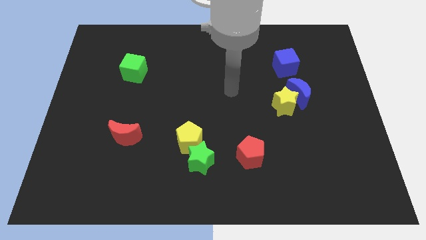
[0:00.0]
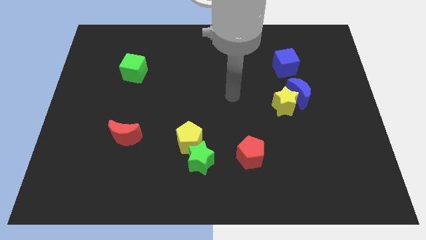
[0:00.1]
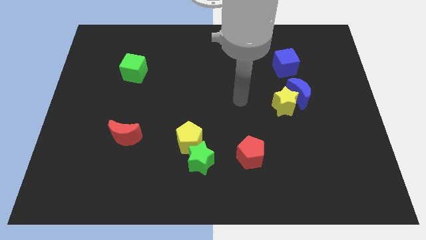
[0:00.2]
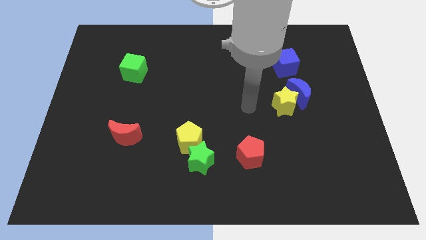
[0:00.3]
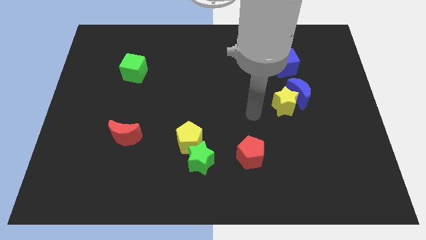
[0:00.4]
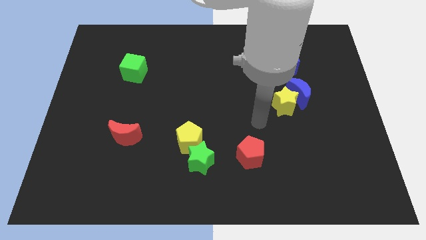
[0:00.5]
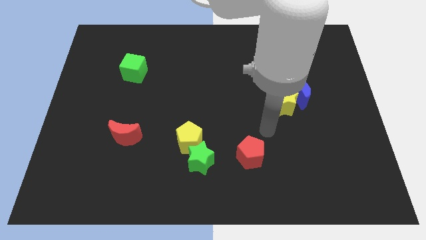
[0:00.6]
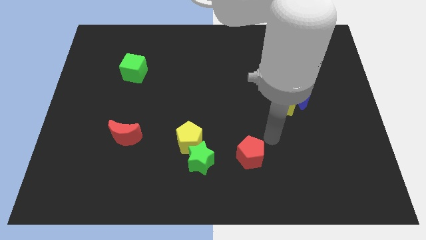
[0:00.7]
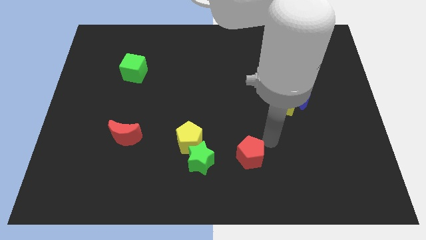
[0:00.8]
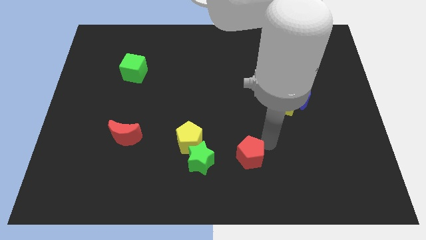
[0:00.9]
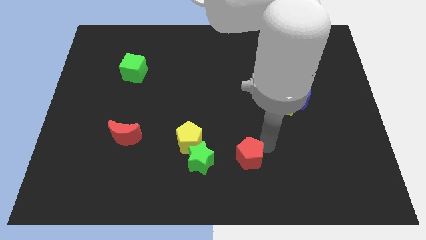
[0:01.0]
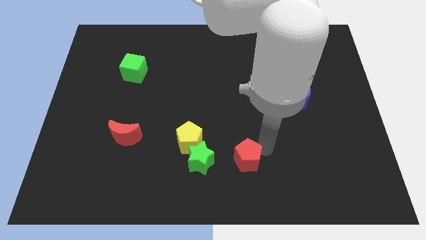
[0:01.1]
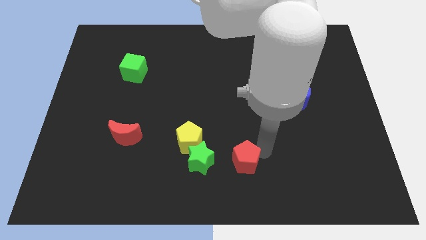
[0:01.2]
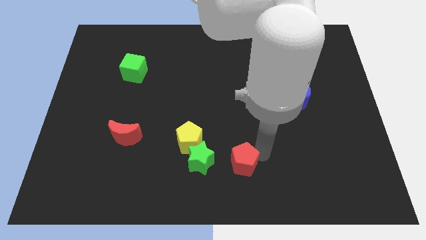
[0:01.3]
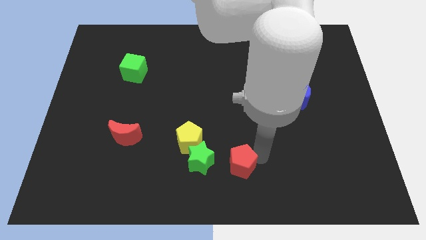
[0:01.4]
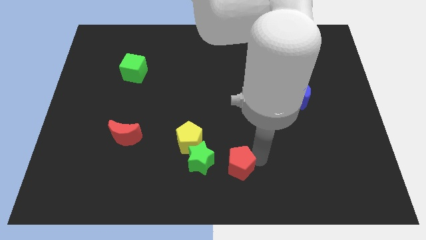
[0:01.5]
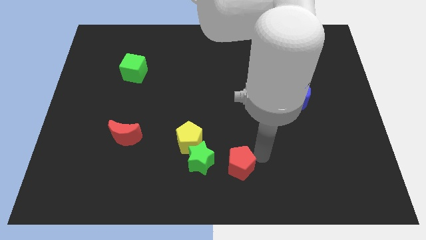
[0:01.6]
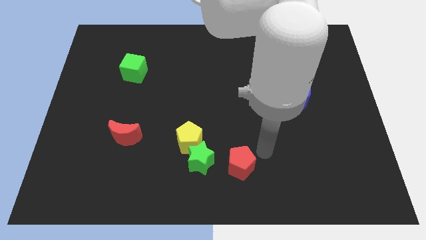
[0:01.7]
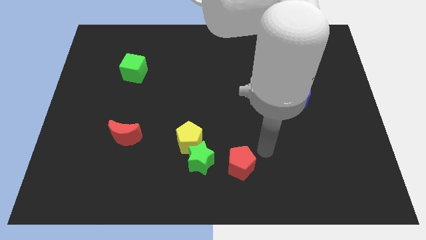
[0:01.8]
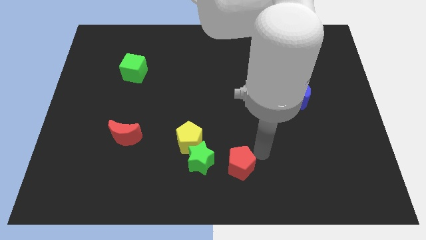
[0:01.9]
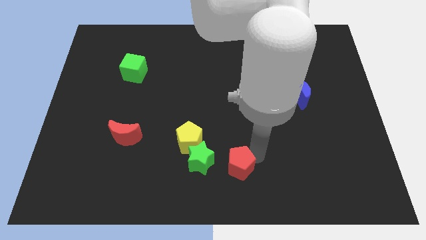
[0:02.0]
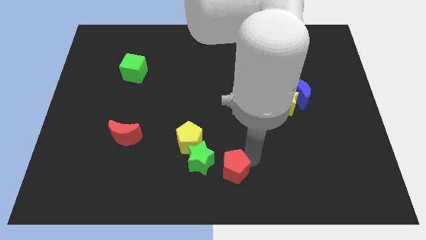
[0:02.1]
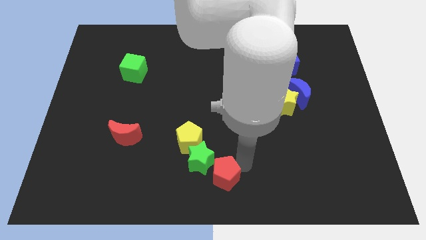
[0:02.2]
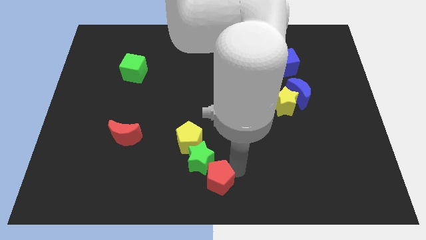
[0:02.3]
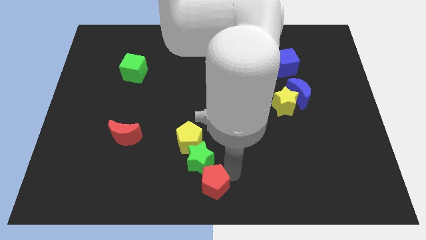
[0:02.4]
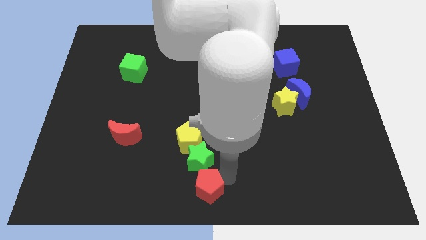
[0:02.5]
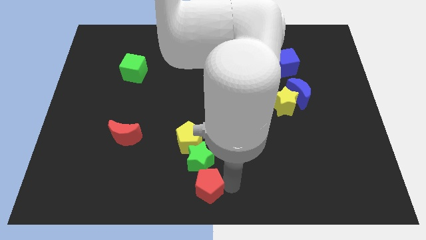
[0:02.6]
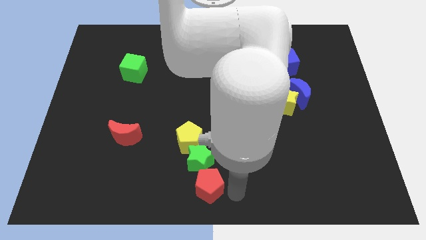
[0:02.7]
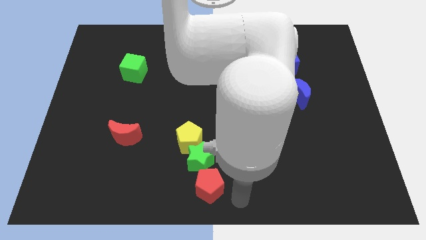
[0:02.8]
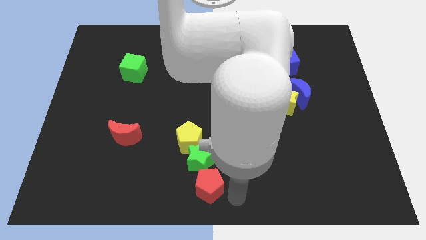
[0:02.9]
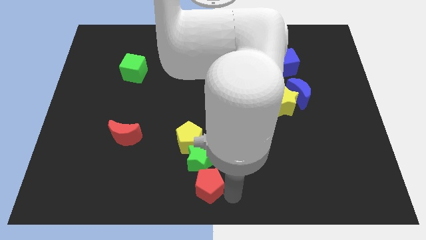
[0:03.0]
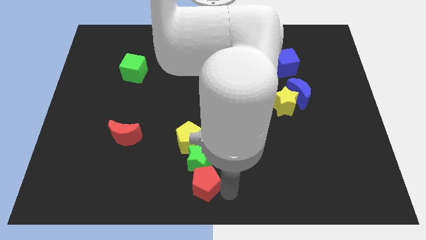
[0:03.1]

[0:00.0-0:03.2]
push the red pentagon a little bit to the left

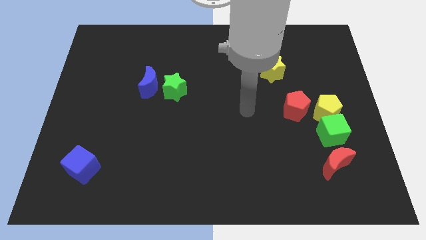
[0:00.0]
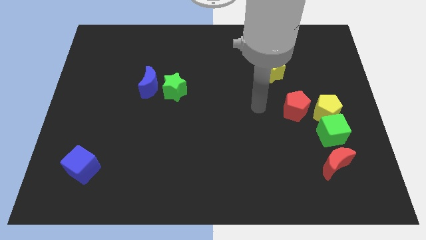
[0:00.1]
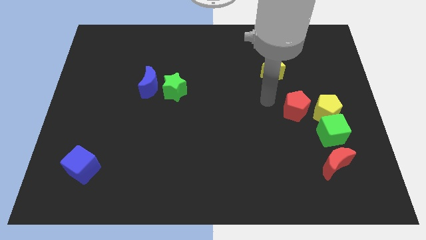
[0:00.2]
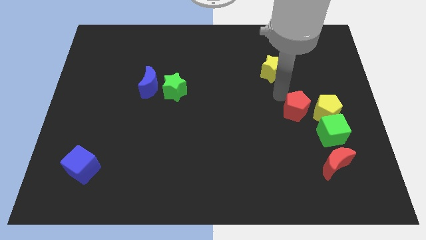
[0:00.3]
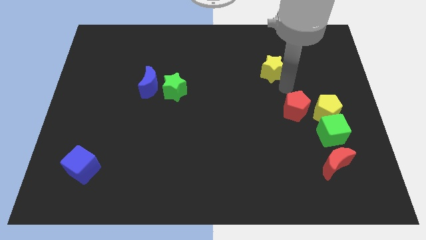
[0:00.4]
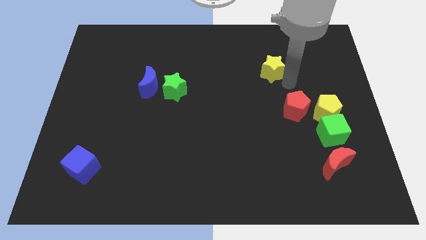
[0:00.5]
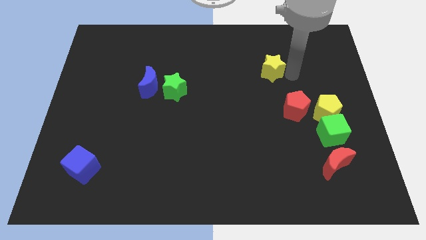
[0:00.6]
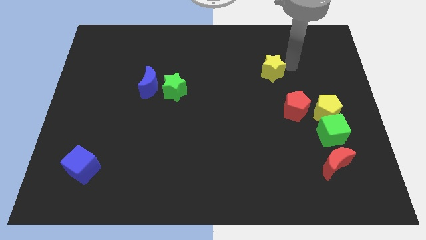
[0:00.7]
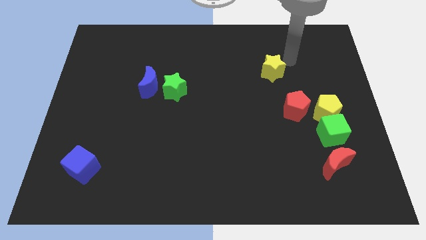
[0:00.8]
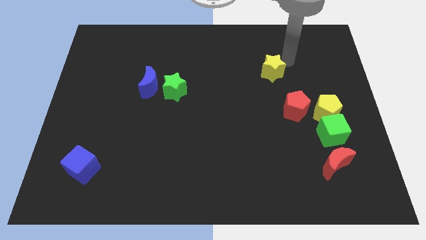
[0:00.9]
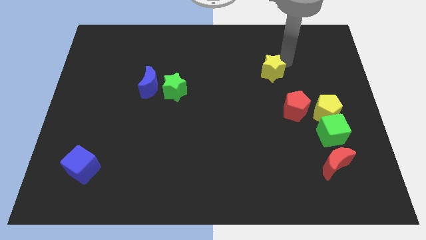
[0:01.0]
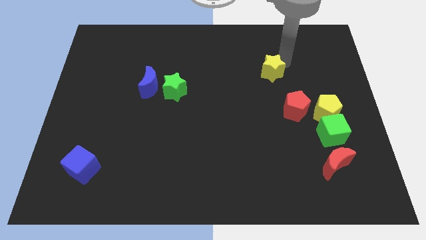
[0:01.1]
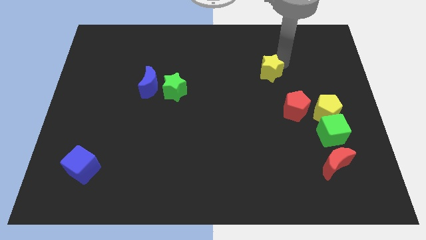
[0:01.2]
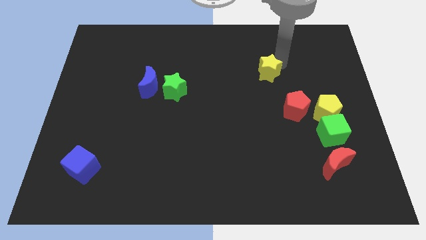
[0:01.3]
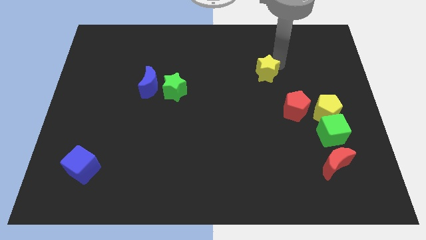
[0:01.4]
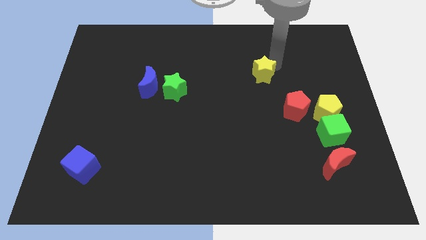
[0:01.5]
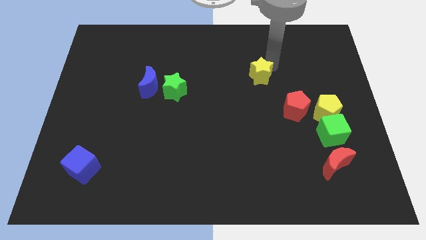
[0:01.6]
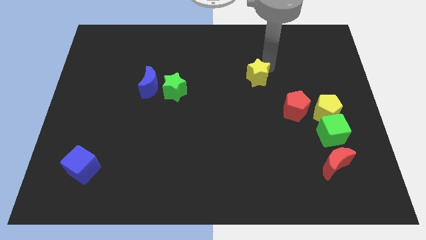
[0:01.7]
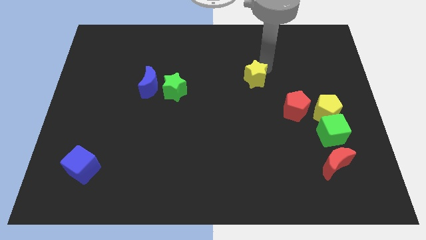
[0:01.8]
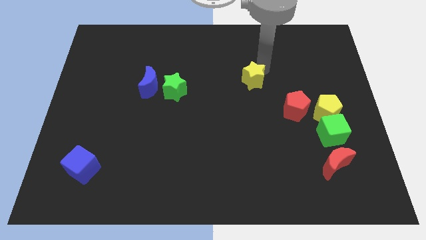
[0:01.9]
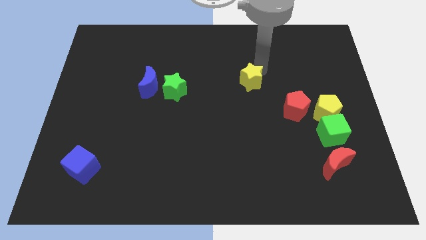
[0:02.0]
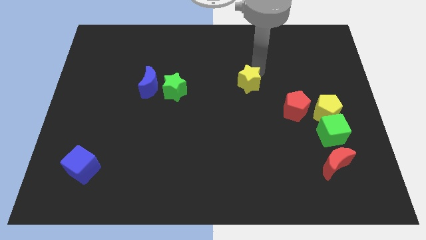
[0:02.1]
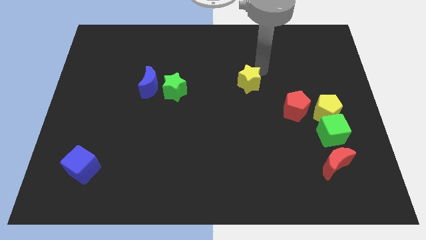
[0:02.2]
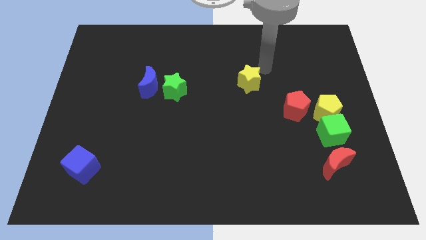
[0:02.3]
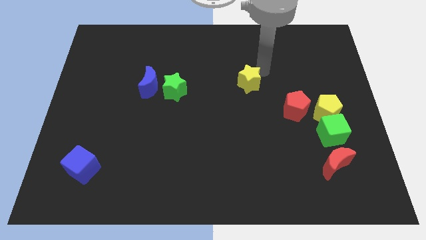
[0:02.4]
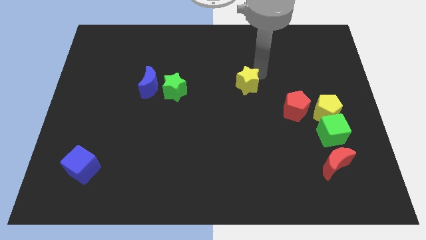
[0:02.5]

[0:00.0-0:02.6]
slide the yellow star somewhat downwards and left

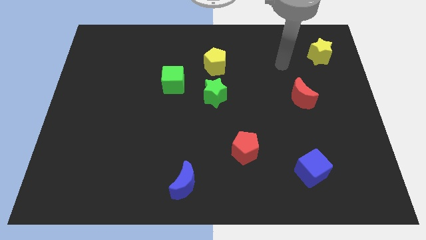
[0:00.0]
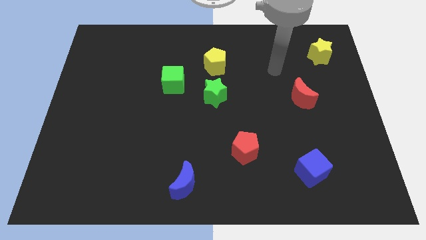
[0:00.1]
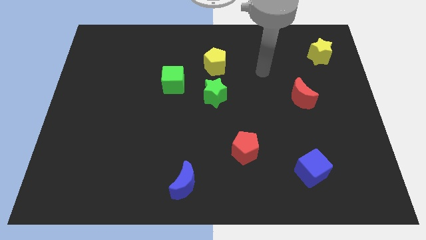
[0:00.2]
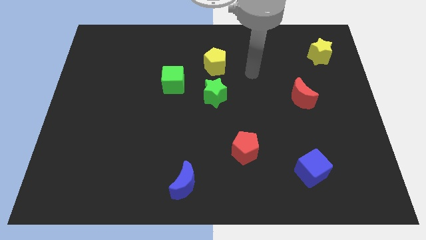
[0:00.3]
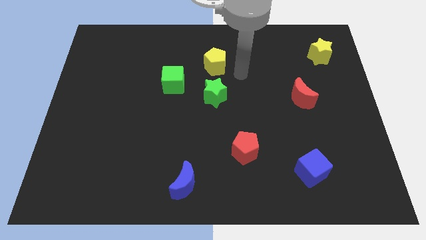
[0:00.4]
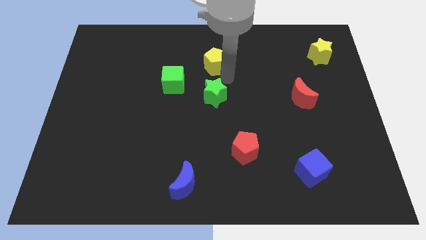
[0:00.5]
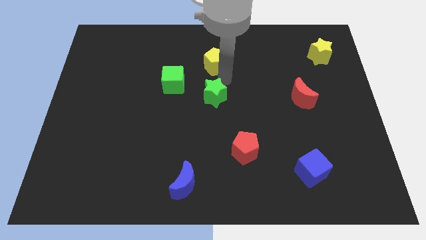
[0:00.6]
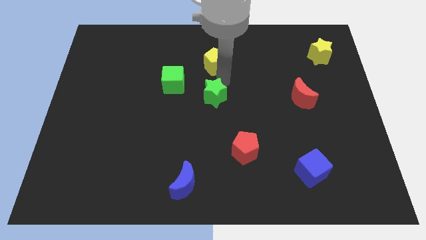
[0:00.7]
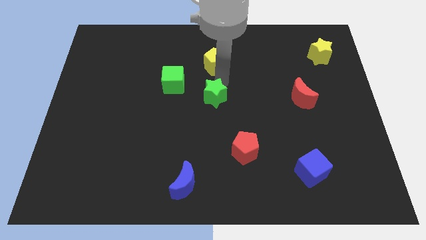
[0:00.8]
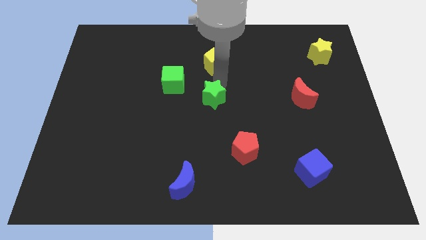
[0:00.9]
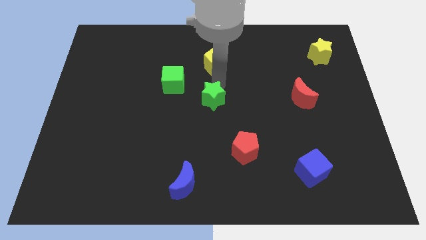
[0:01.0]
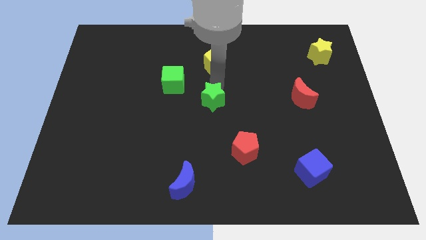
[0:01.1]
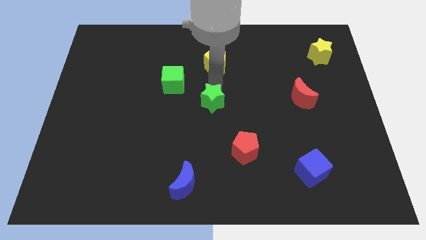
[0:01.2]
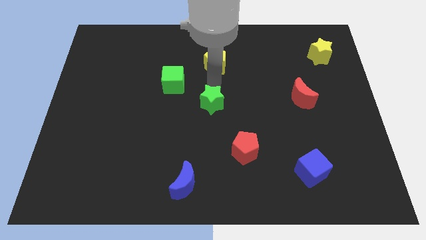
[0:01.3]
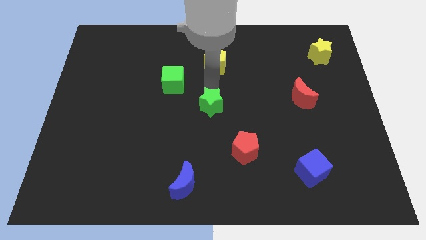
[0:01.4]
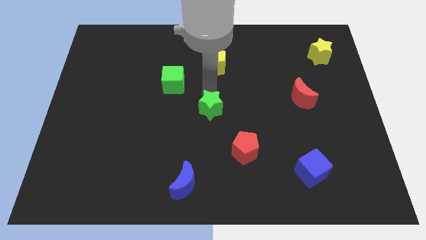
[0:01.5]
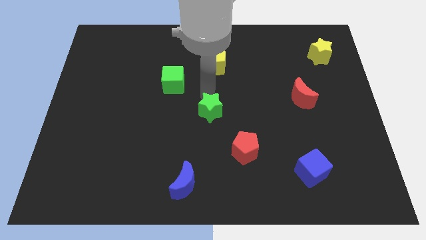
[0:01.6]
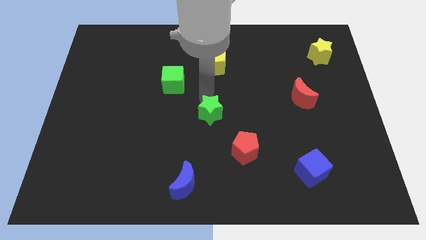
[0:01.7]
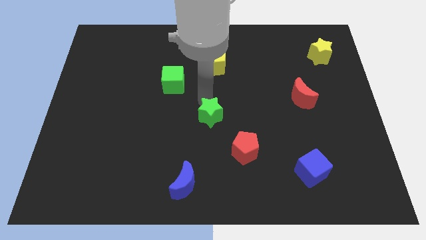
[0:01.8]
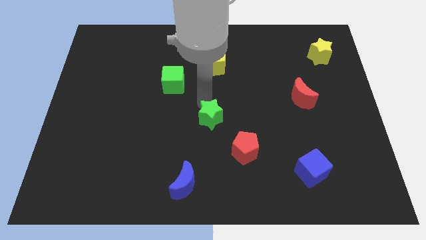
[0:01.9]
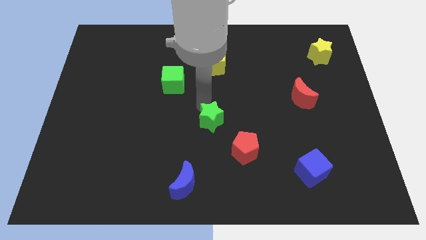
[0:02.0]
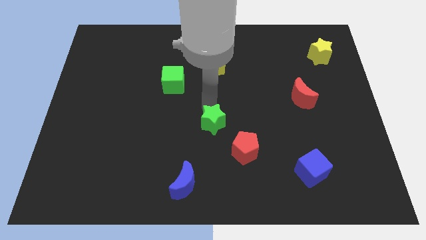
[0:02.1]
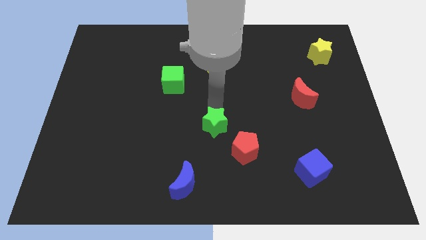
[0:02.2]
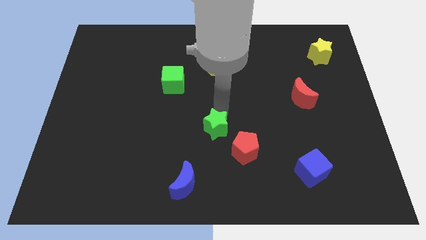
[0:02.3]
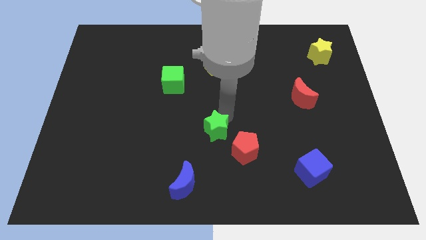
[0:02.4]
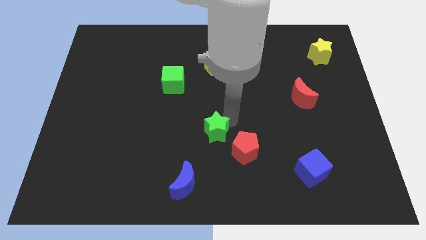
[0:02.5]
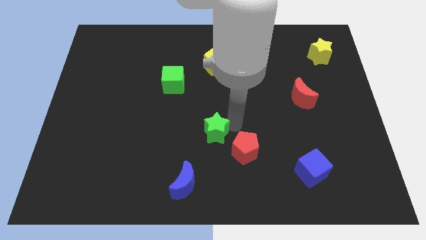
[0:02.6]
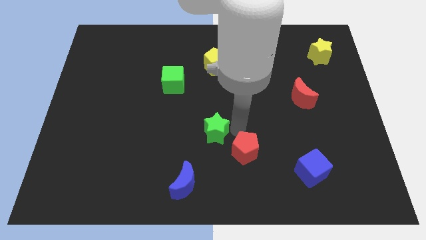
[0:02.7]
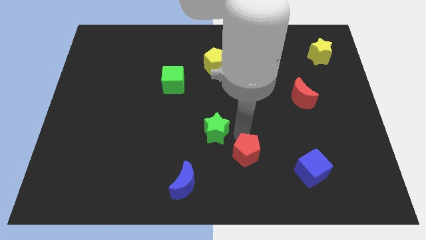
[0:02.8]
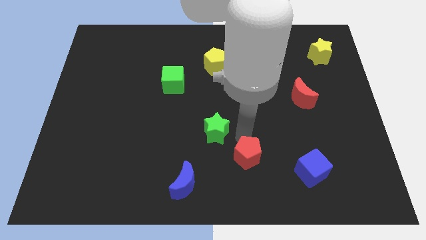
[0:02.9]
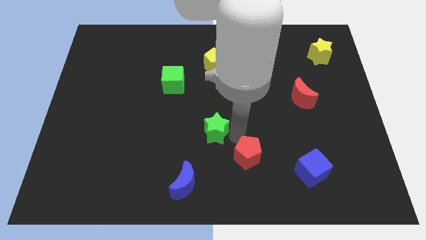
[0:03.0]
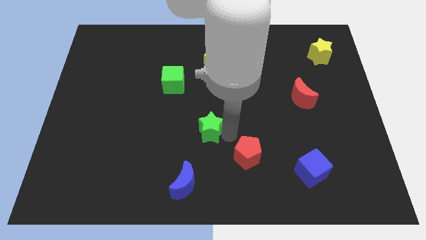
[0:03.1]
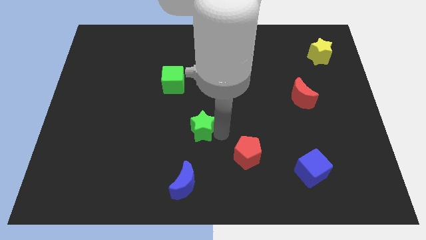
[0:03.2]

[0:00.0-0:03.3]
slide the green star slightly diagonally down and to the left
